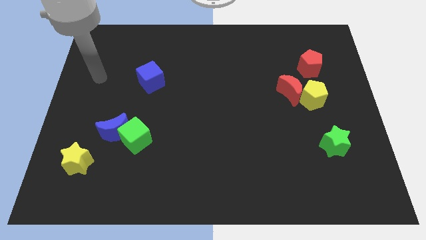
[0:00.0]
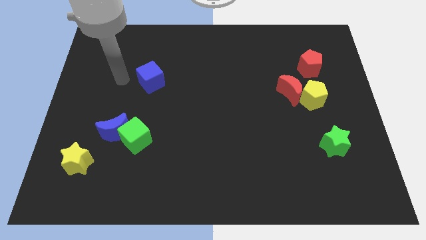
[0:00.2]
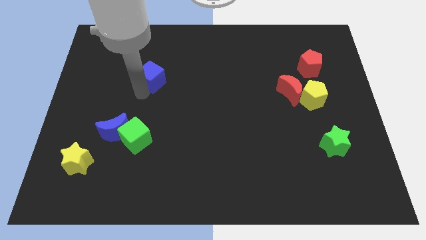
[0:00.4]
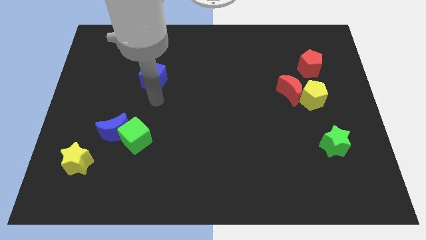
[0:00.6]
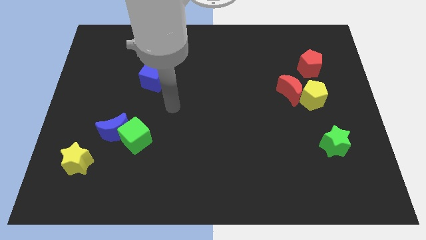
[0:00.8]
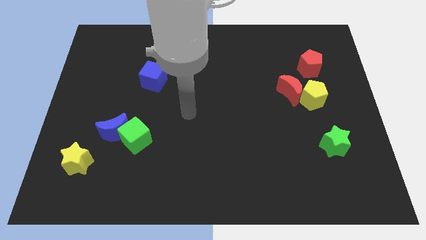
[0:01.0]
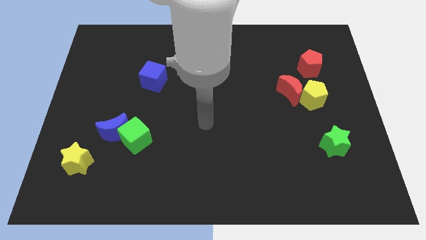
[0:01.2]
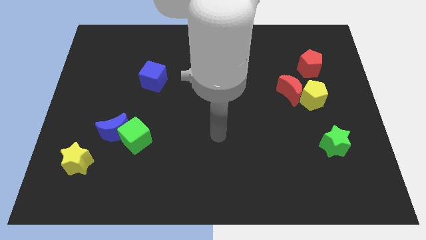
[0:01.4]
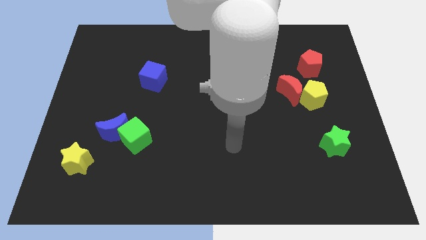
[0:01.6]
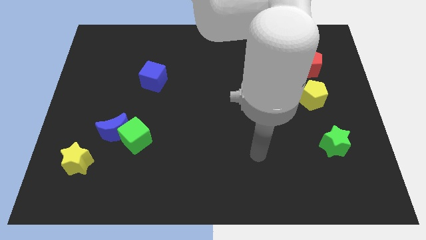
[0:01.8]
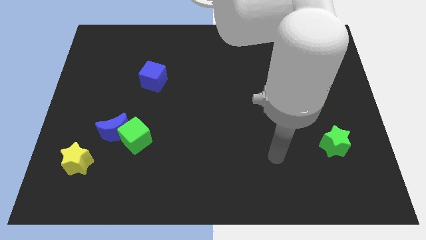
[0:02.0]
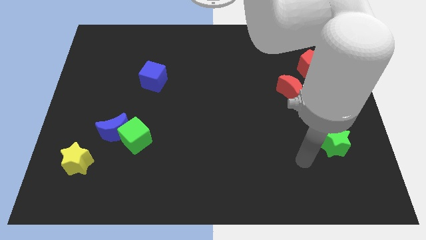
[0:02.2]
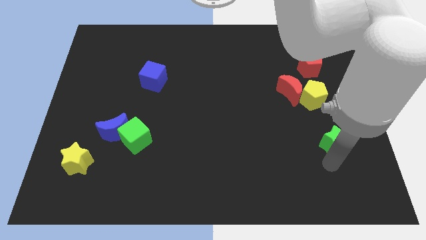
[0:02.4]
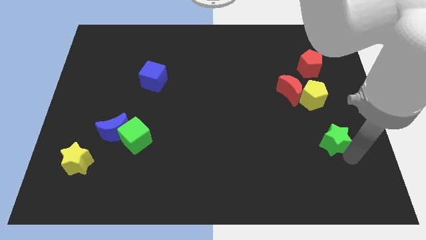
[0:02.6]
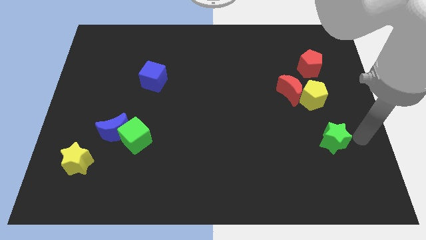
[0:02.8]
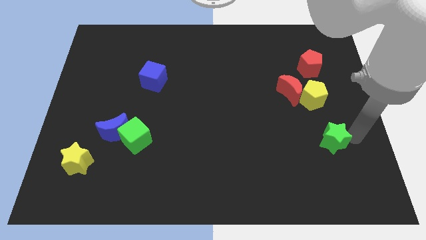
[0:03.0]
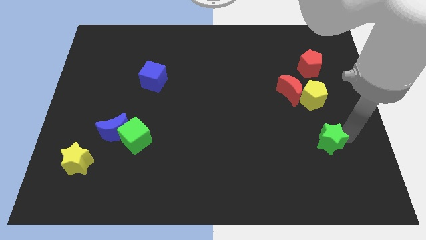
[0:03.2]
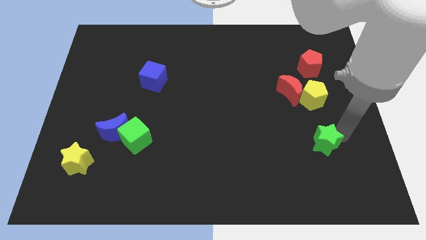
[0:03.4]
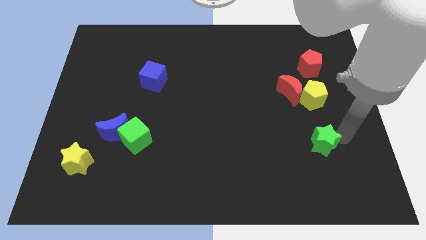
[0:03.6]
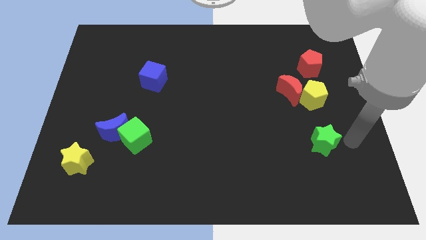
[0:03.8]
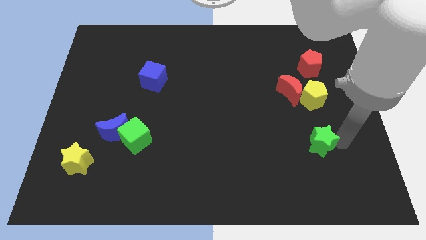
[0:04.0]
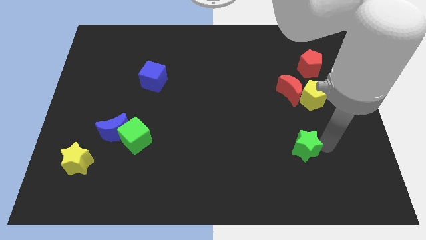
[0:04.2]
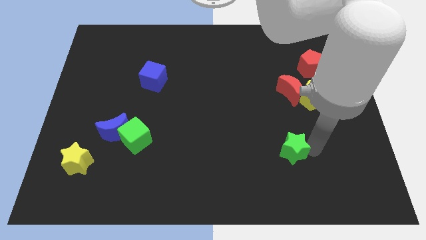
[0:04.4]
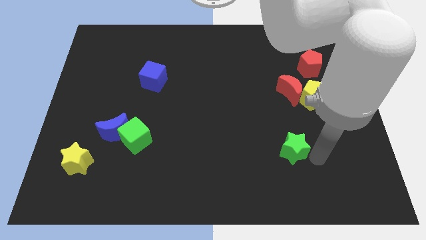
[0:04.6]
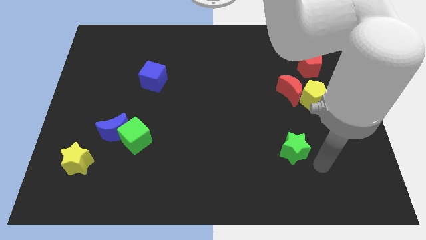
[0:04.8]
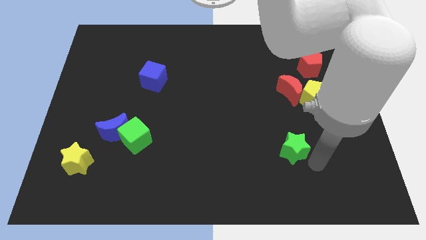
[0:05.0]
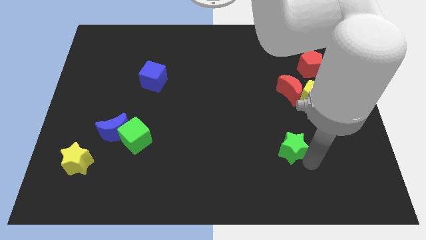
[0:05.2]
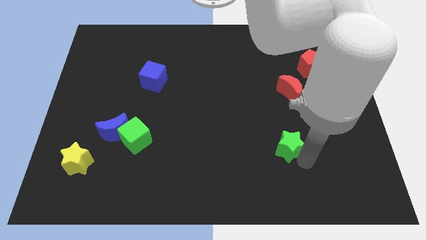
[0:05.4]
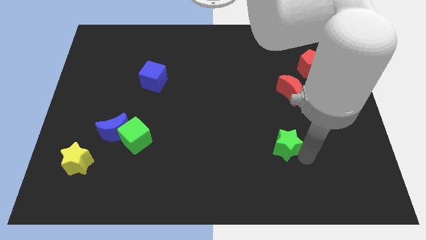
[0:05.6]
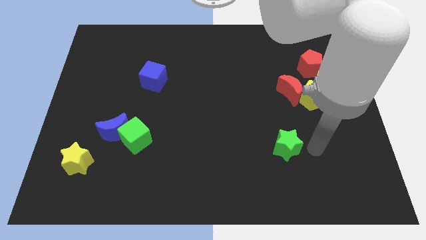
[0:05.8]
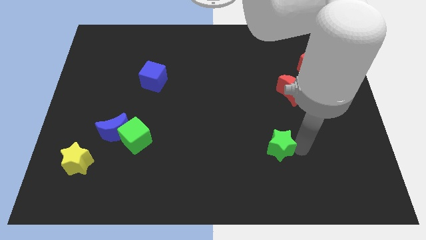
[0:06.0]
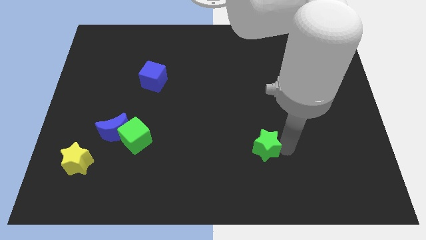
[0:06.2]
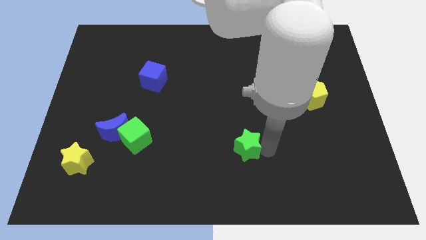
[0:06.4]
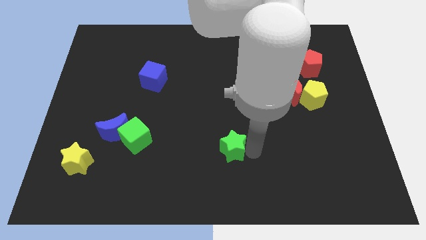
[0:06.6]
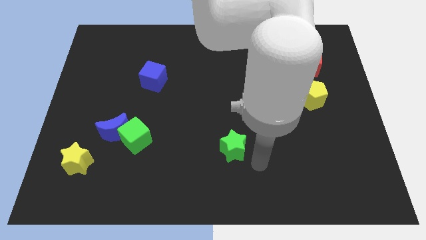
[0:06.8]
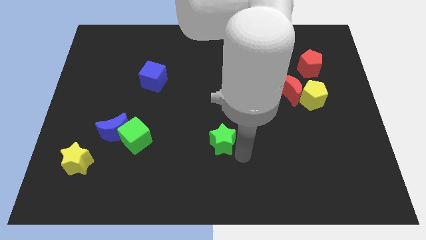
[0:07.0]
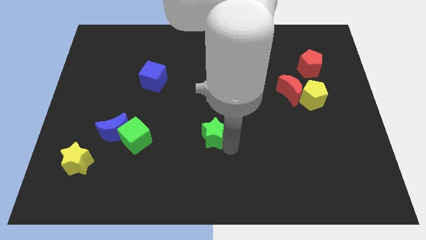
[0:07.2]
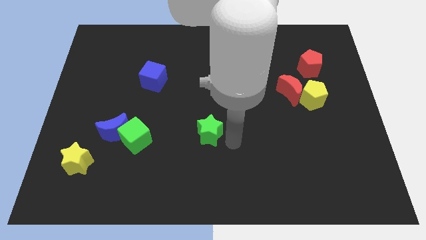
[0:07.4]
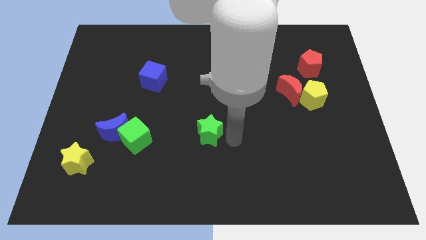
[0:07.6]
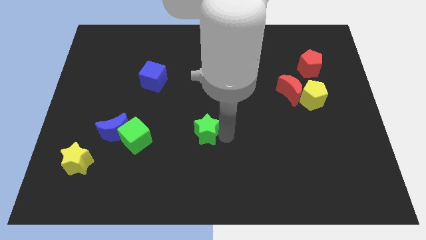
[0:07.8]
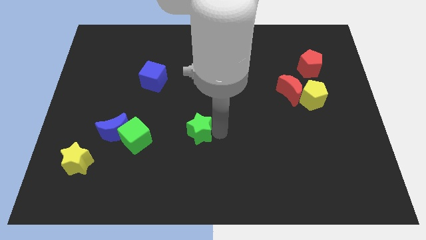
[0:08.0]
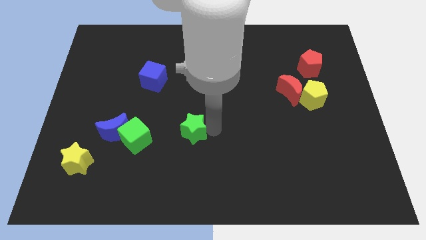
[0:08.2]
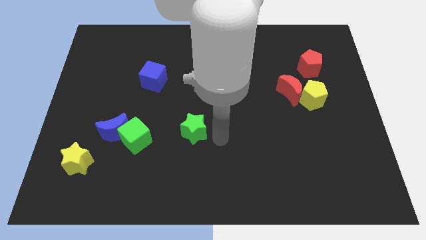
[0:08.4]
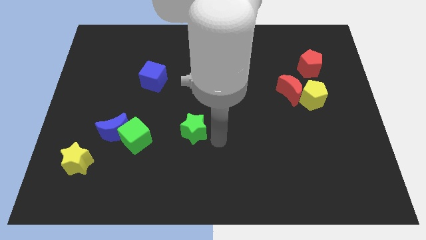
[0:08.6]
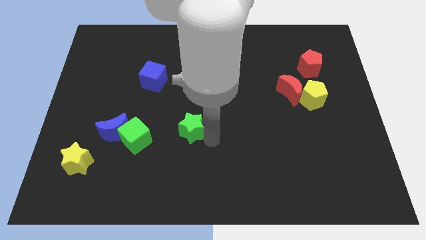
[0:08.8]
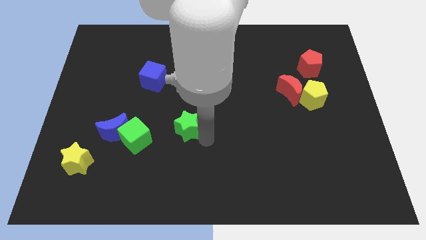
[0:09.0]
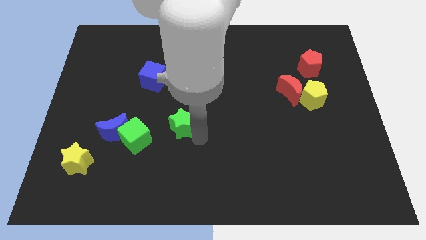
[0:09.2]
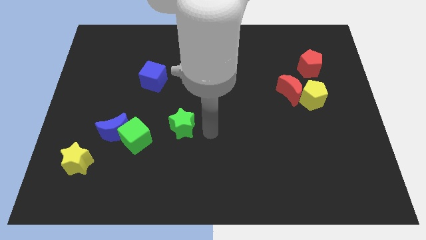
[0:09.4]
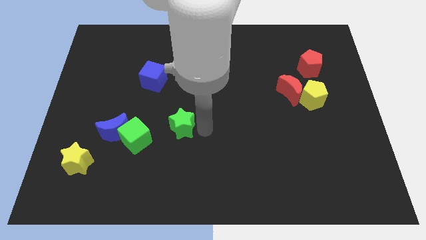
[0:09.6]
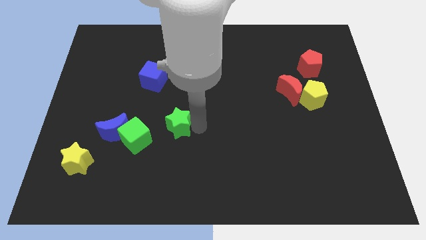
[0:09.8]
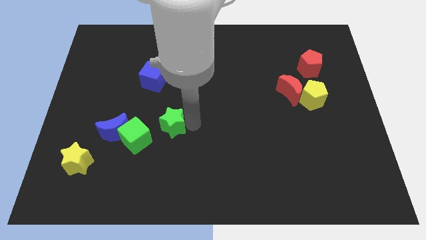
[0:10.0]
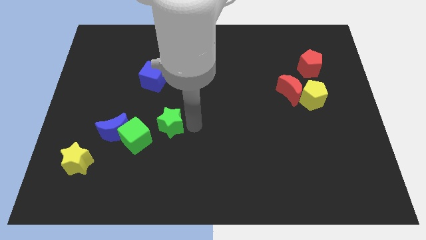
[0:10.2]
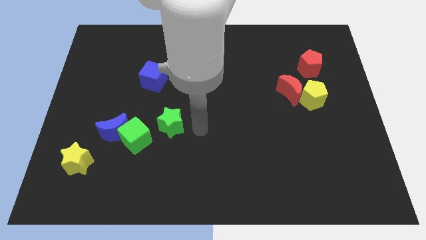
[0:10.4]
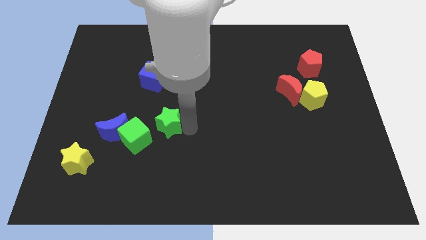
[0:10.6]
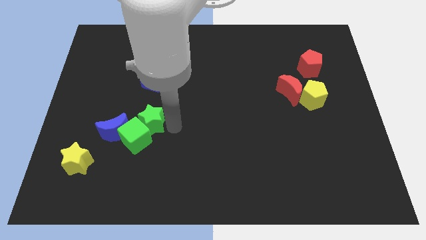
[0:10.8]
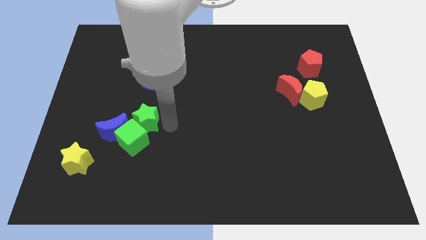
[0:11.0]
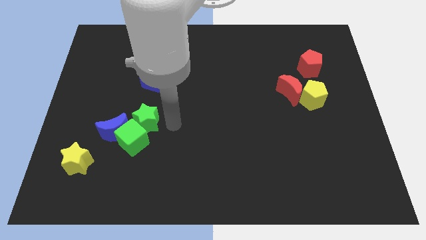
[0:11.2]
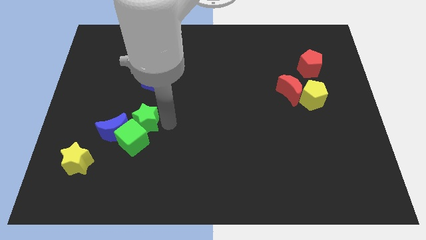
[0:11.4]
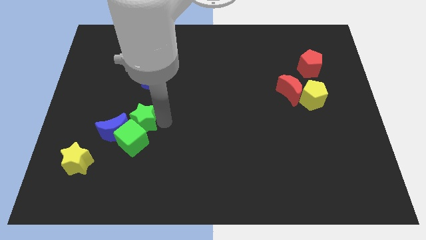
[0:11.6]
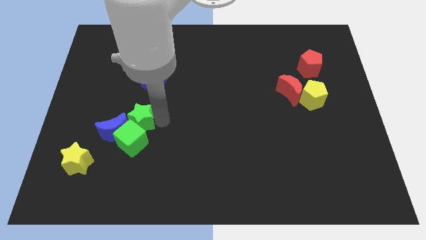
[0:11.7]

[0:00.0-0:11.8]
move the green star next to the blue moon

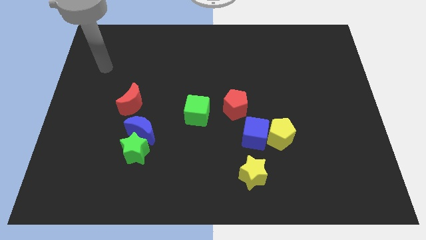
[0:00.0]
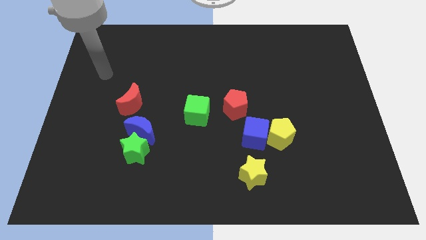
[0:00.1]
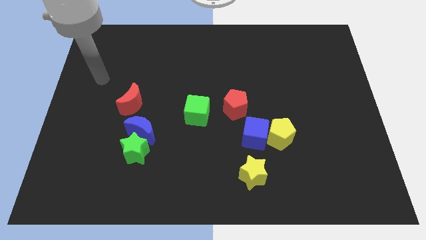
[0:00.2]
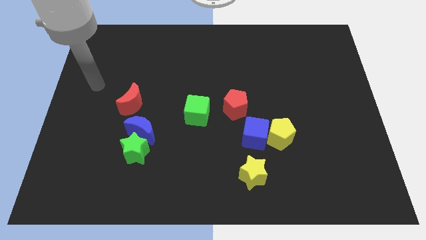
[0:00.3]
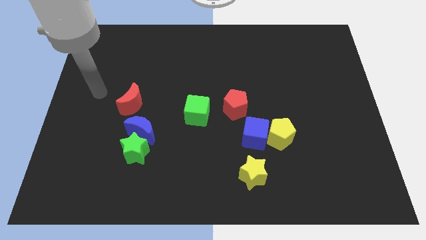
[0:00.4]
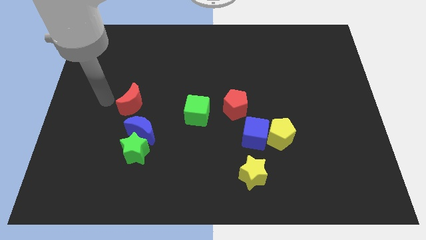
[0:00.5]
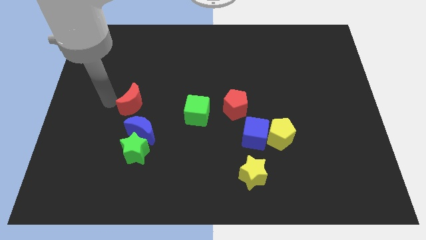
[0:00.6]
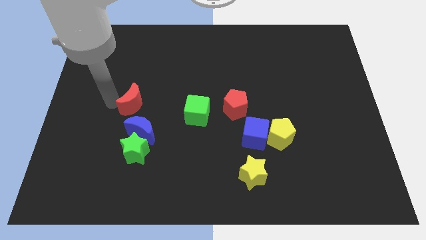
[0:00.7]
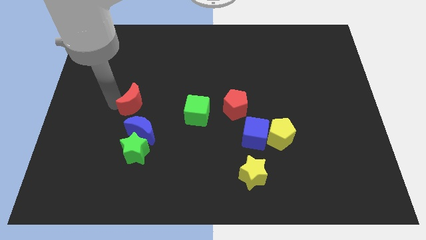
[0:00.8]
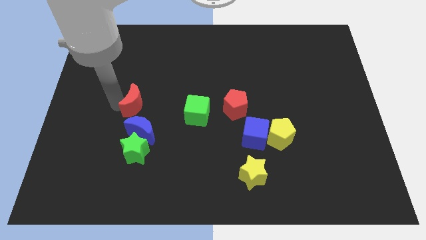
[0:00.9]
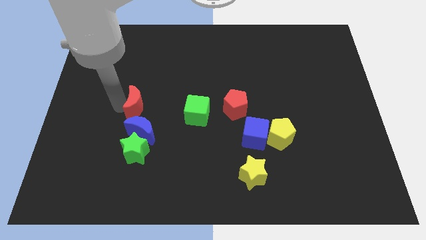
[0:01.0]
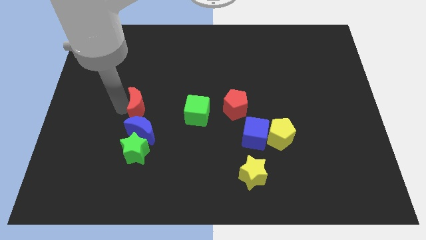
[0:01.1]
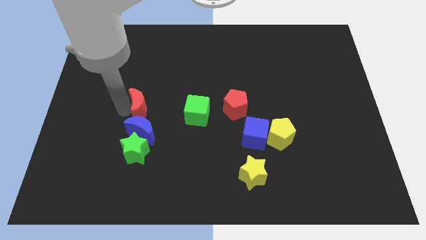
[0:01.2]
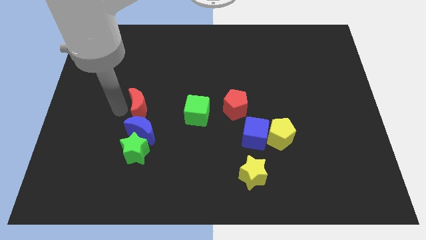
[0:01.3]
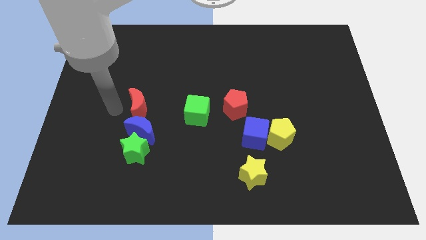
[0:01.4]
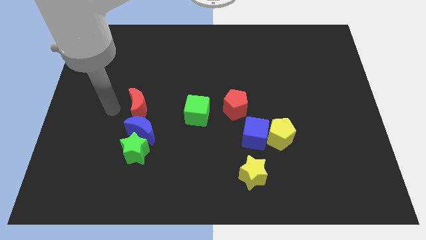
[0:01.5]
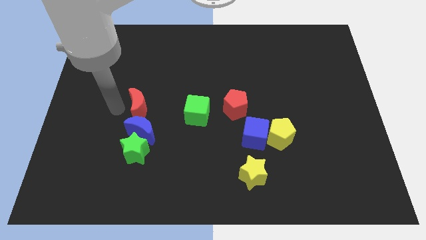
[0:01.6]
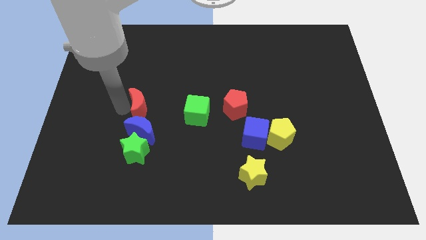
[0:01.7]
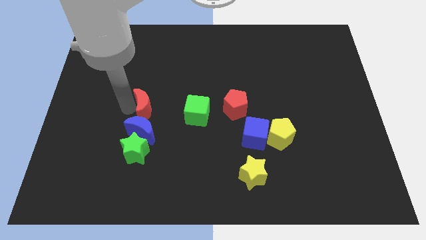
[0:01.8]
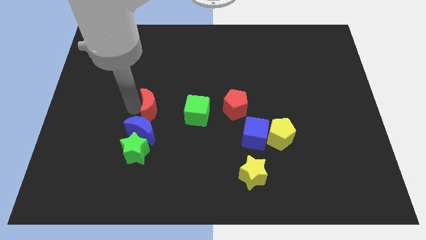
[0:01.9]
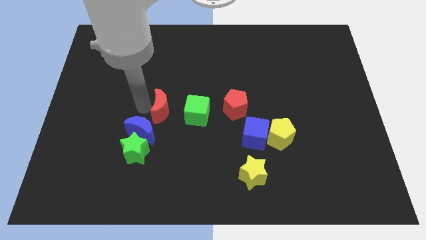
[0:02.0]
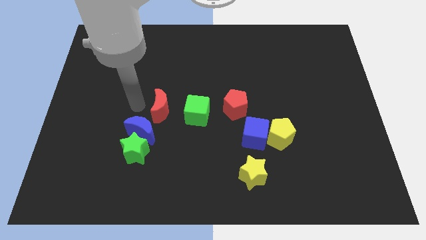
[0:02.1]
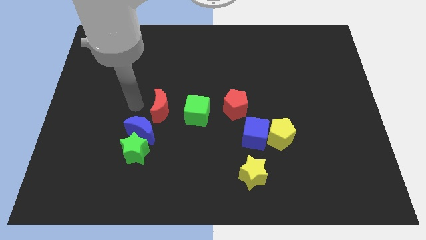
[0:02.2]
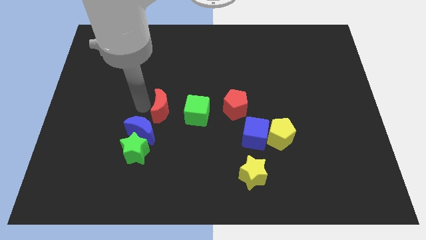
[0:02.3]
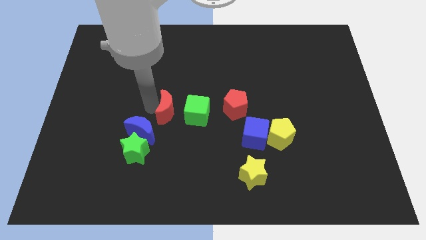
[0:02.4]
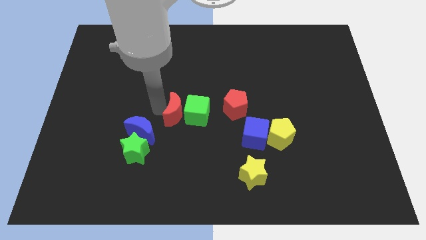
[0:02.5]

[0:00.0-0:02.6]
move the red moon towards the green cube
